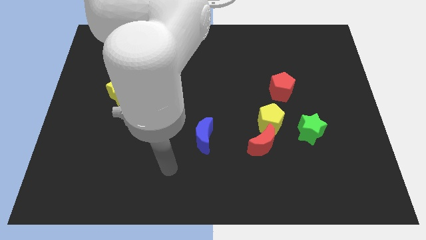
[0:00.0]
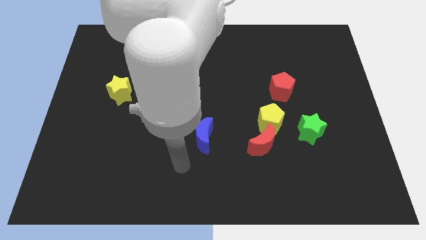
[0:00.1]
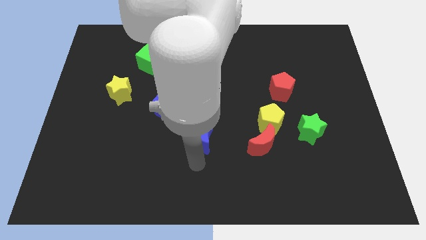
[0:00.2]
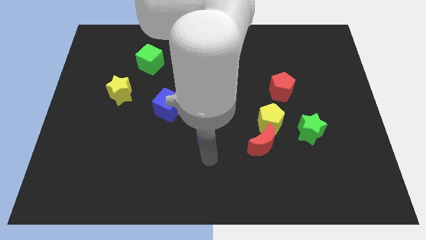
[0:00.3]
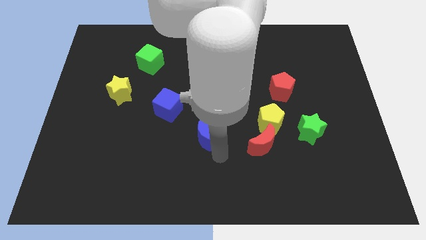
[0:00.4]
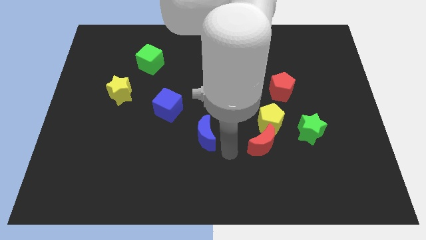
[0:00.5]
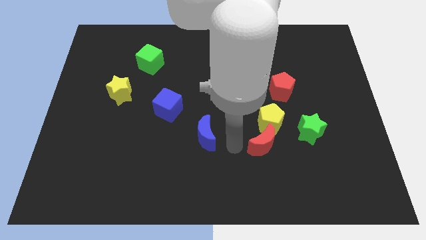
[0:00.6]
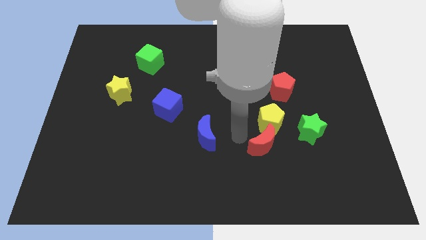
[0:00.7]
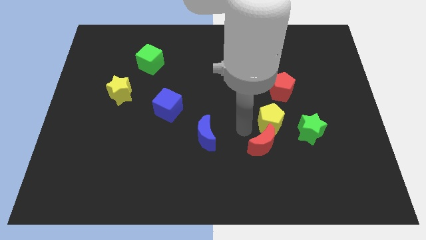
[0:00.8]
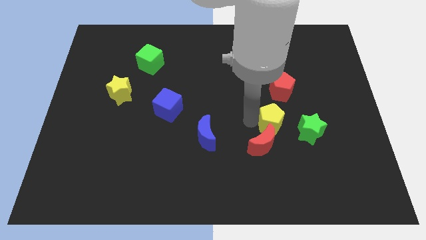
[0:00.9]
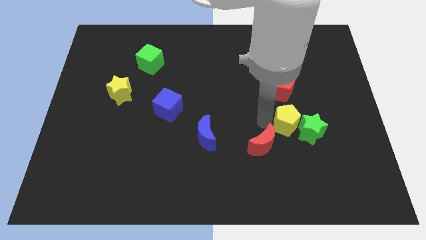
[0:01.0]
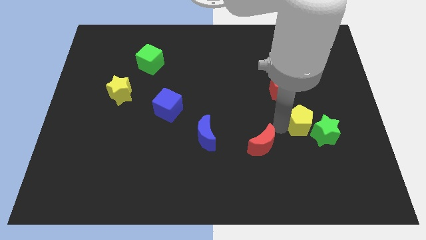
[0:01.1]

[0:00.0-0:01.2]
move the red moon away from the yellow pentagon

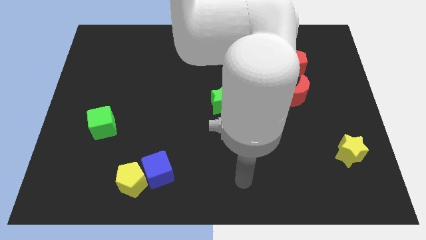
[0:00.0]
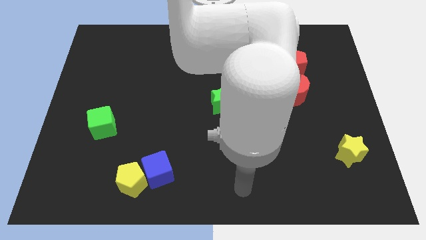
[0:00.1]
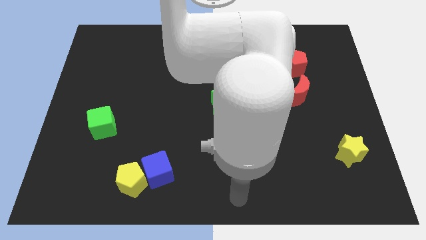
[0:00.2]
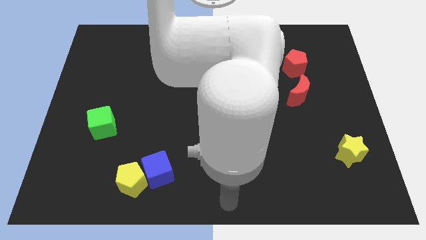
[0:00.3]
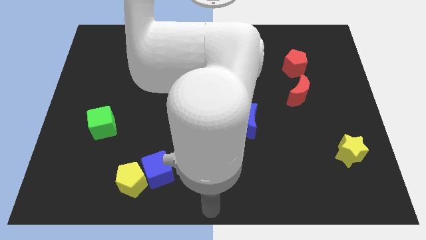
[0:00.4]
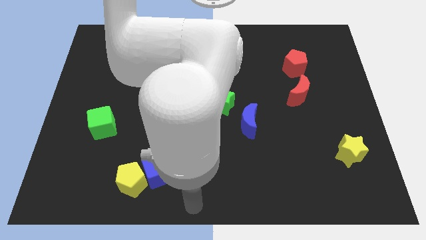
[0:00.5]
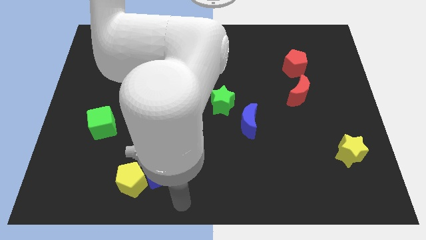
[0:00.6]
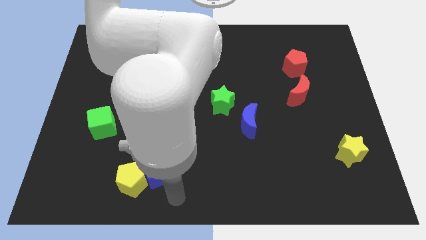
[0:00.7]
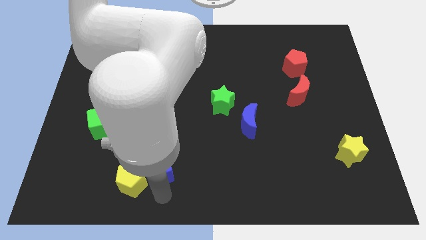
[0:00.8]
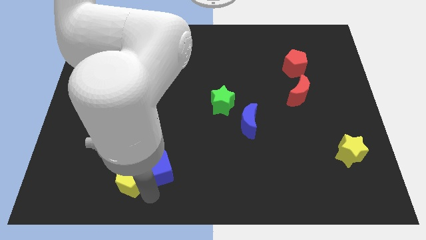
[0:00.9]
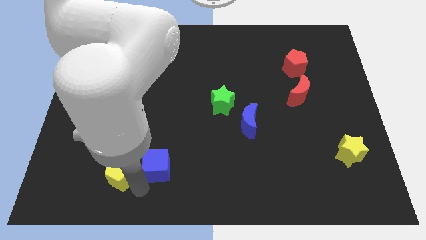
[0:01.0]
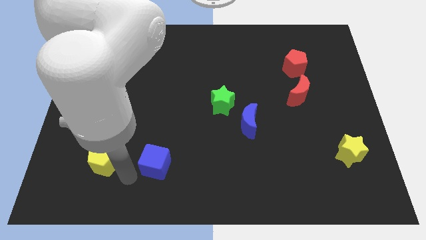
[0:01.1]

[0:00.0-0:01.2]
pull the blue cube apart from the yellow pentagon

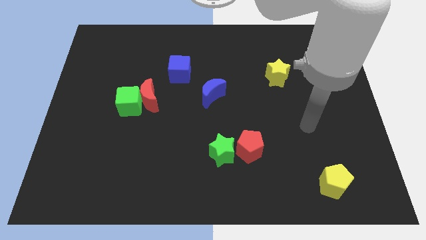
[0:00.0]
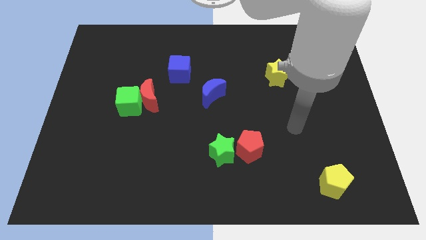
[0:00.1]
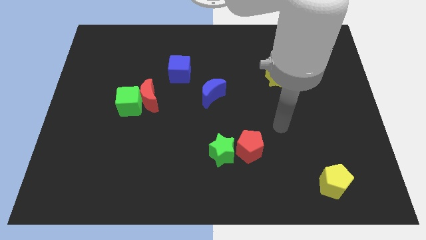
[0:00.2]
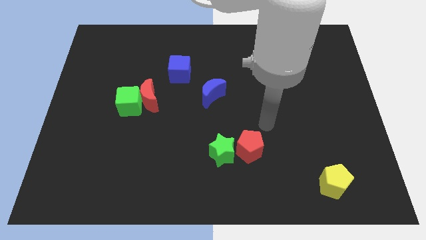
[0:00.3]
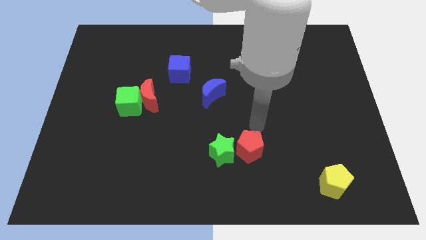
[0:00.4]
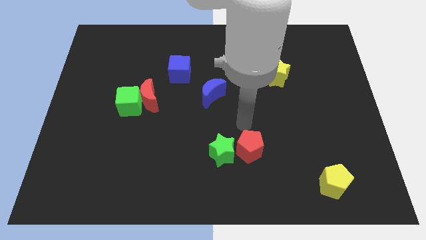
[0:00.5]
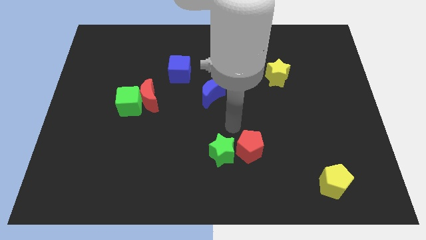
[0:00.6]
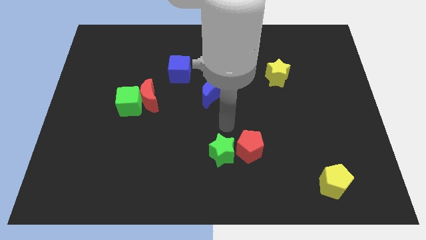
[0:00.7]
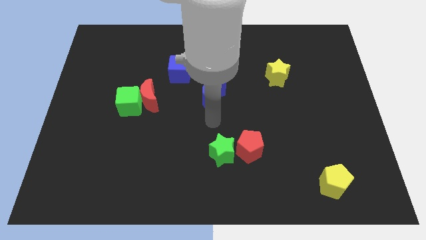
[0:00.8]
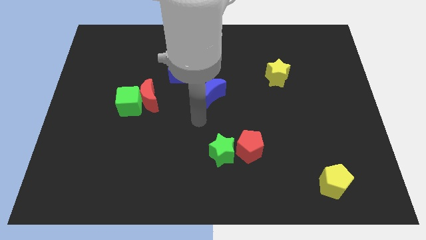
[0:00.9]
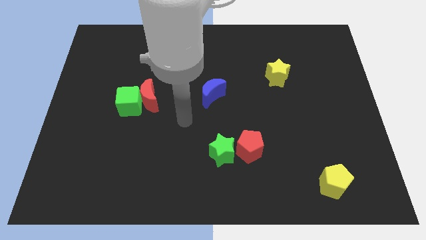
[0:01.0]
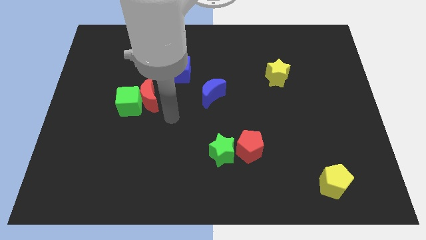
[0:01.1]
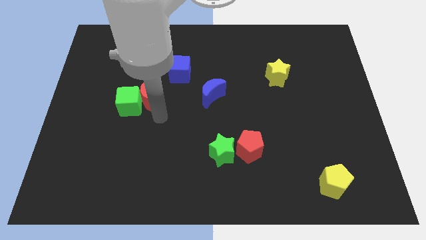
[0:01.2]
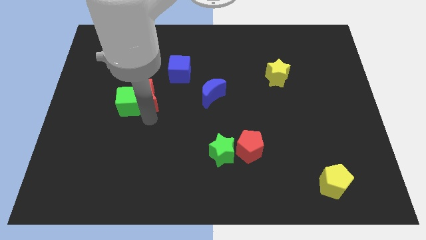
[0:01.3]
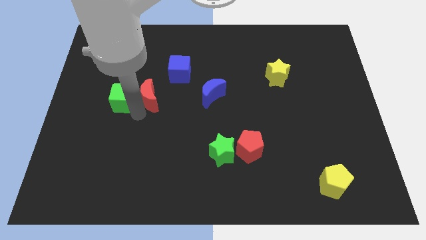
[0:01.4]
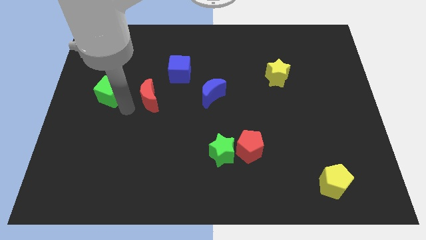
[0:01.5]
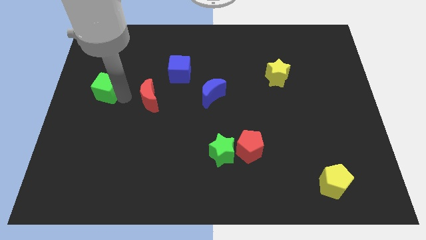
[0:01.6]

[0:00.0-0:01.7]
separate the red moon from the green cube

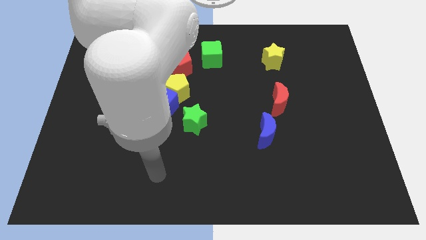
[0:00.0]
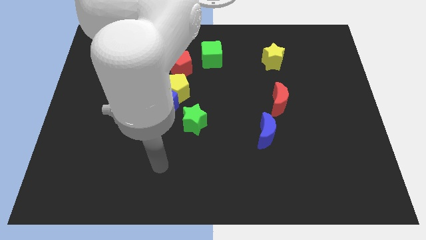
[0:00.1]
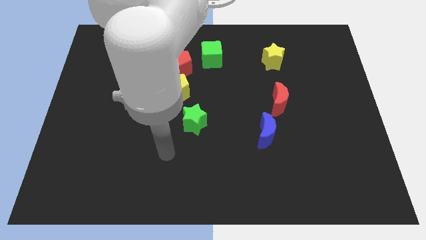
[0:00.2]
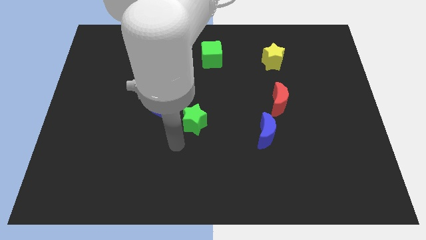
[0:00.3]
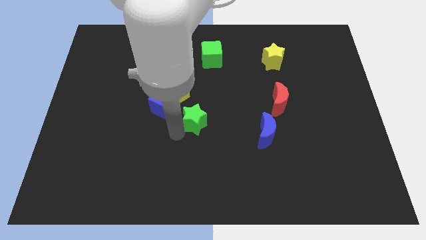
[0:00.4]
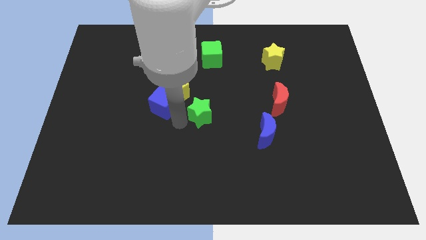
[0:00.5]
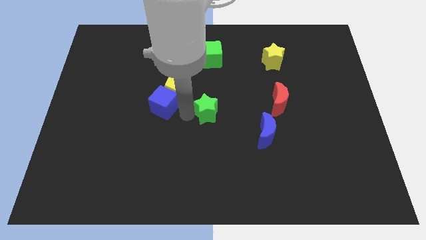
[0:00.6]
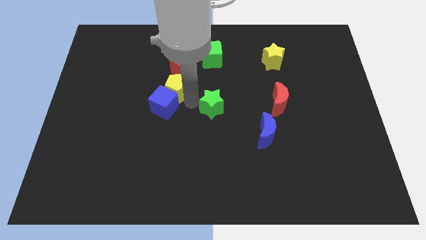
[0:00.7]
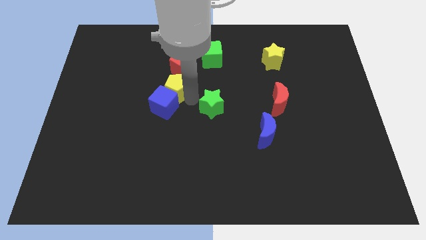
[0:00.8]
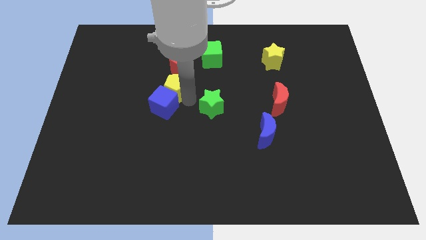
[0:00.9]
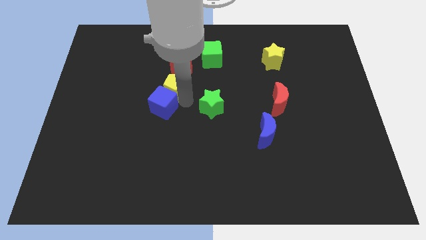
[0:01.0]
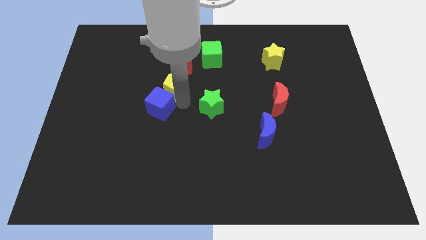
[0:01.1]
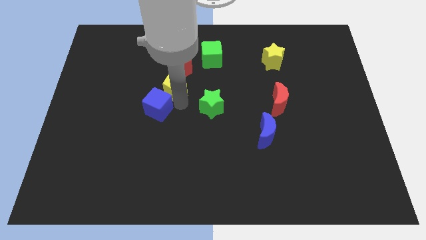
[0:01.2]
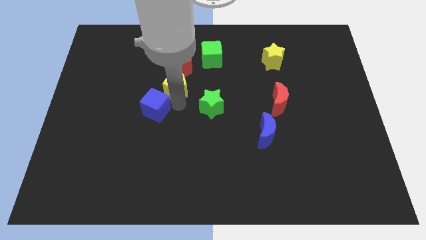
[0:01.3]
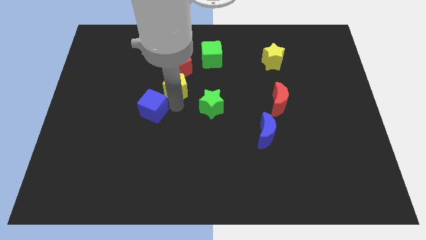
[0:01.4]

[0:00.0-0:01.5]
move the blue cube away from the yellow pentagon and green star

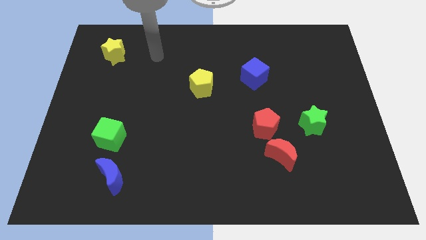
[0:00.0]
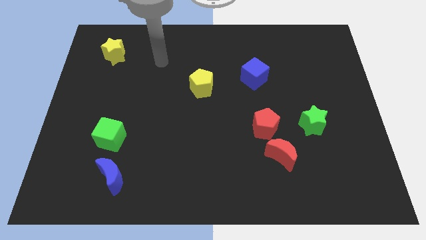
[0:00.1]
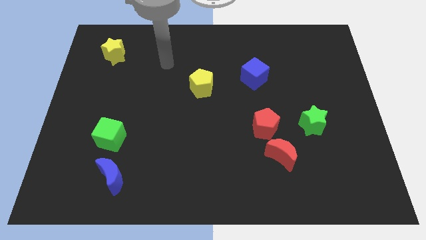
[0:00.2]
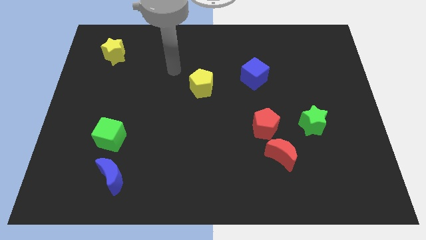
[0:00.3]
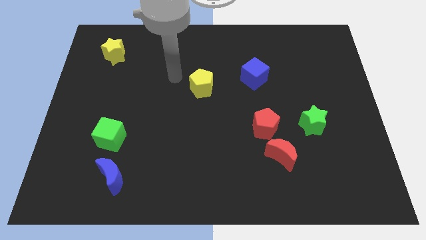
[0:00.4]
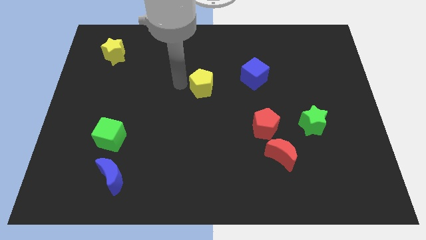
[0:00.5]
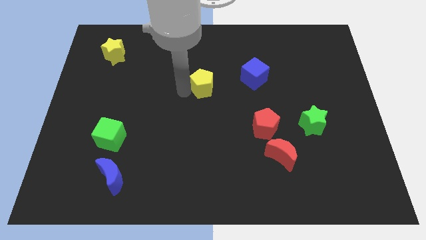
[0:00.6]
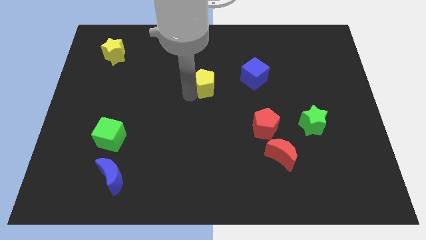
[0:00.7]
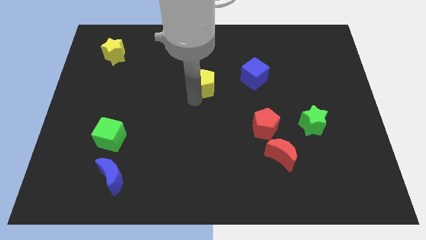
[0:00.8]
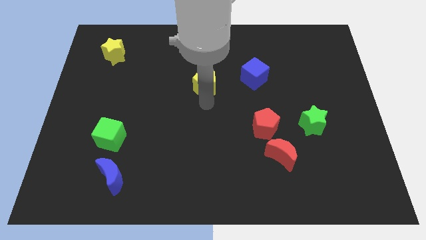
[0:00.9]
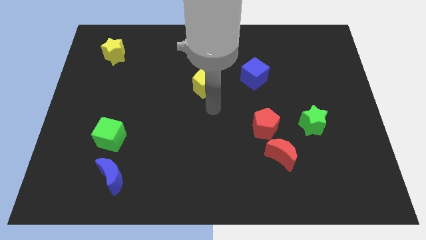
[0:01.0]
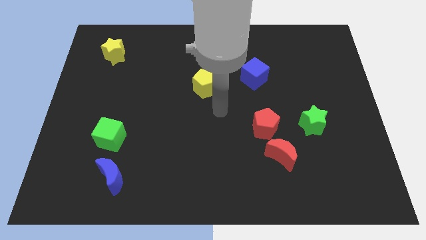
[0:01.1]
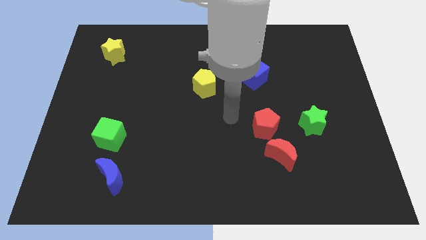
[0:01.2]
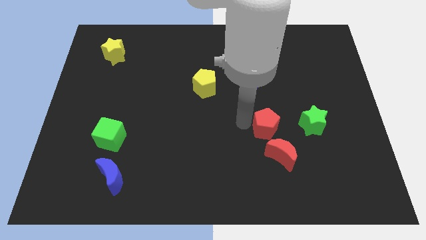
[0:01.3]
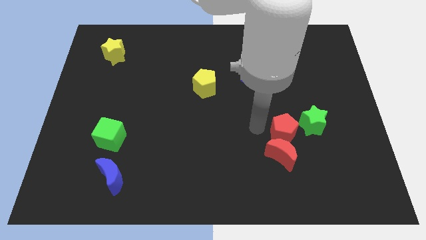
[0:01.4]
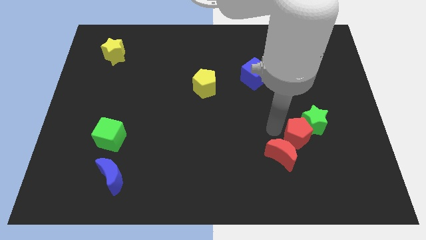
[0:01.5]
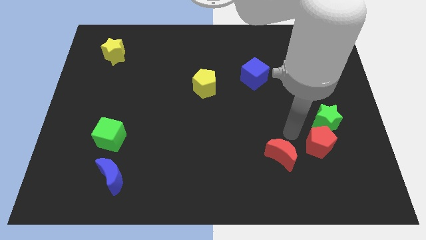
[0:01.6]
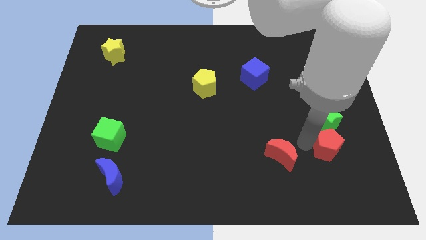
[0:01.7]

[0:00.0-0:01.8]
pull the red moon apart from the red pentagon

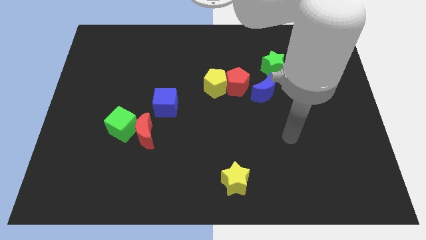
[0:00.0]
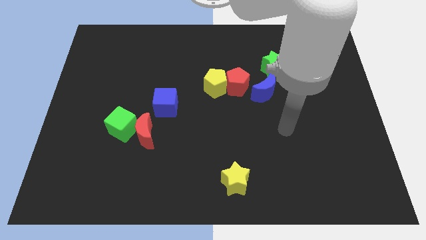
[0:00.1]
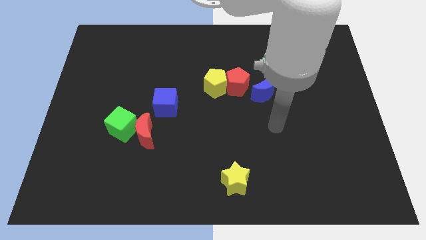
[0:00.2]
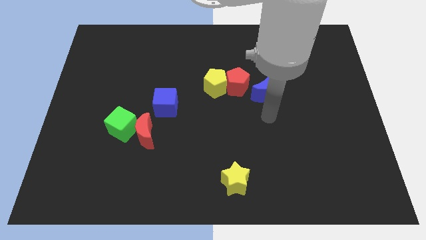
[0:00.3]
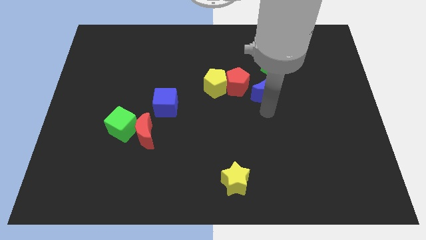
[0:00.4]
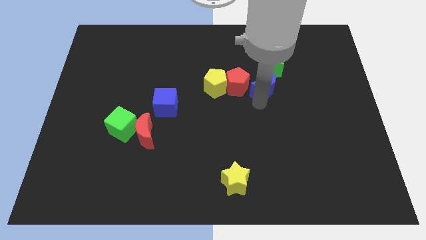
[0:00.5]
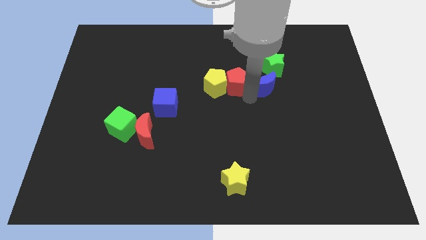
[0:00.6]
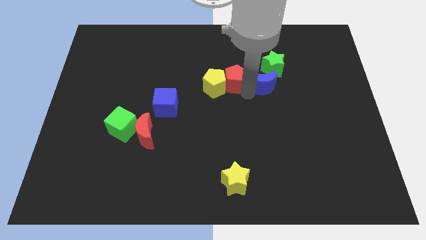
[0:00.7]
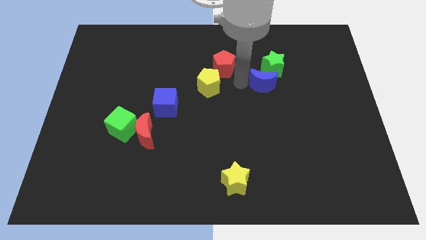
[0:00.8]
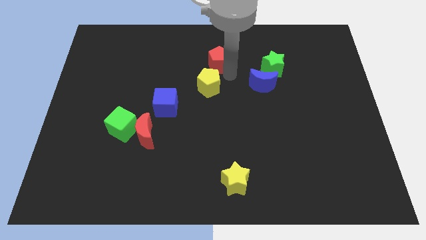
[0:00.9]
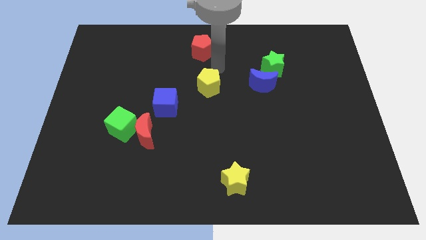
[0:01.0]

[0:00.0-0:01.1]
separate the yellow pentagon from the red pentagon

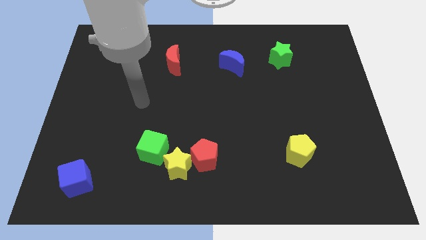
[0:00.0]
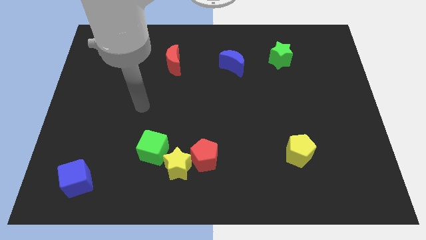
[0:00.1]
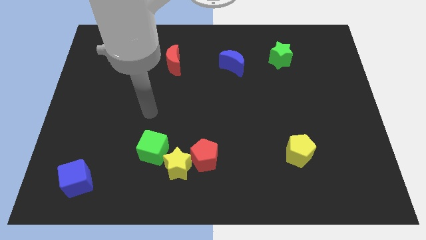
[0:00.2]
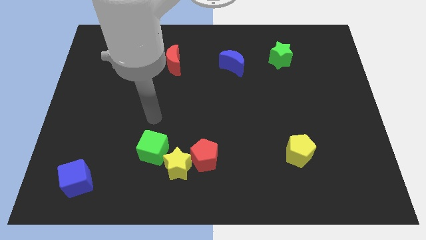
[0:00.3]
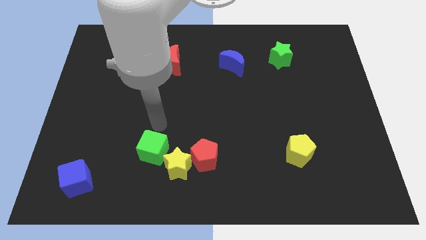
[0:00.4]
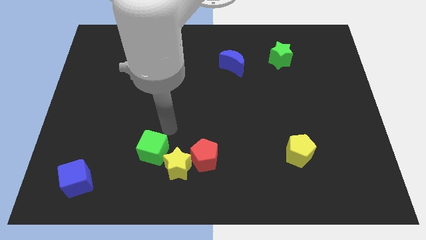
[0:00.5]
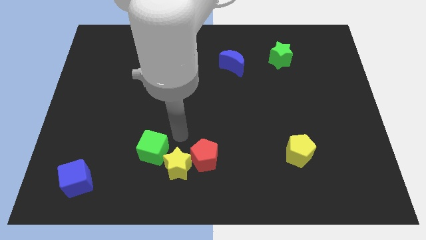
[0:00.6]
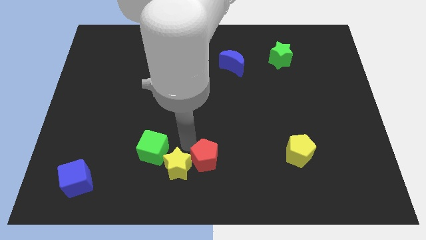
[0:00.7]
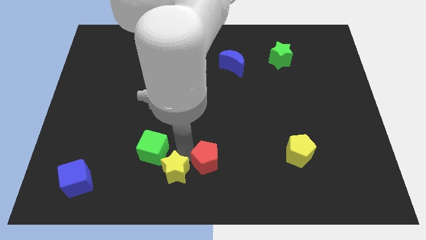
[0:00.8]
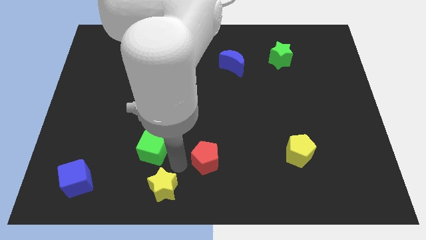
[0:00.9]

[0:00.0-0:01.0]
pull the red pentagon apart from the yellow star
